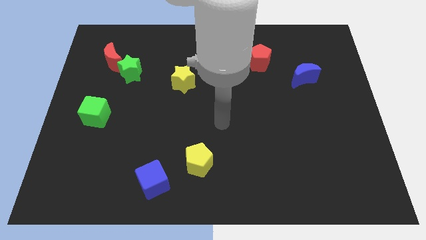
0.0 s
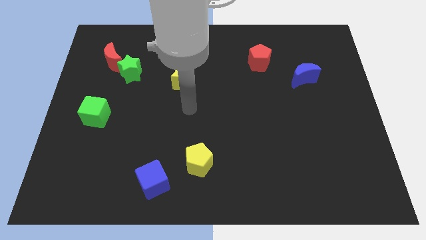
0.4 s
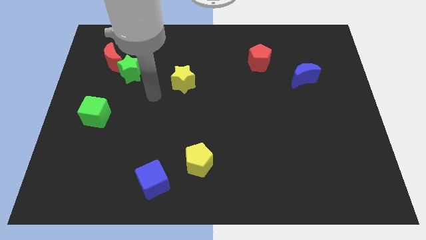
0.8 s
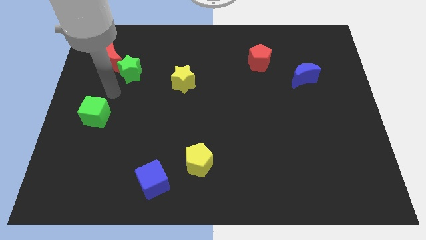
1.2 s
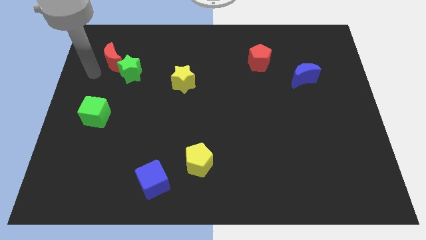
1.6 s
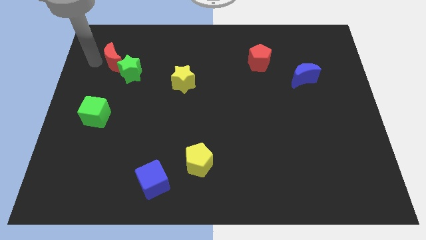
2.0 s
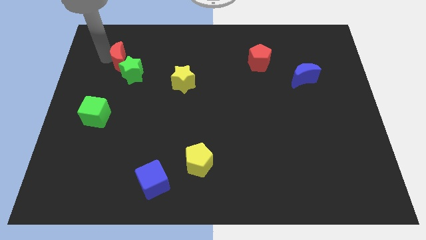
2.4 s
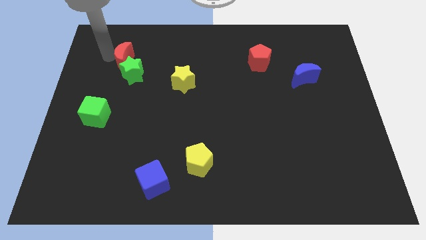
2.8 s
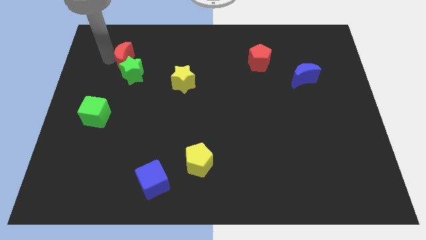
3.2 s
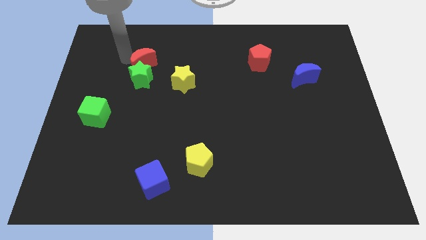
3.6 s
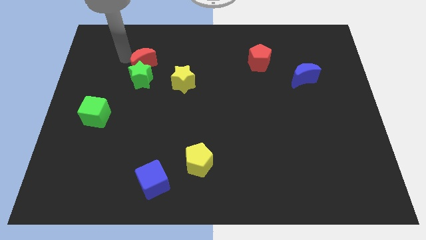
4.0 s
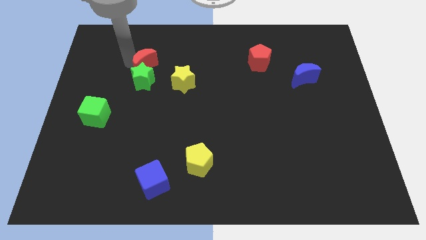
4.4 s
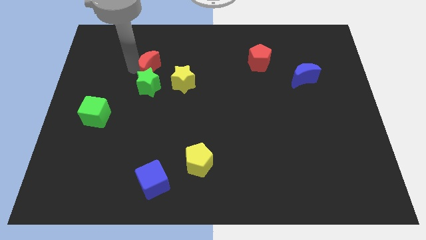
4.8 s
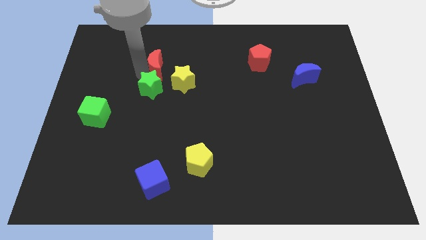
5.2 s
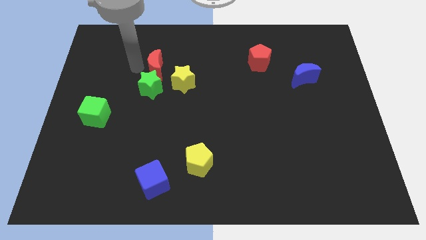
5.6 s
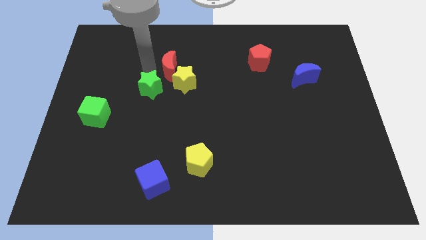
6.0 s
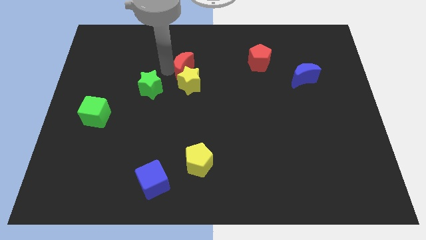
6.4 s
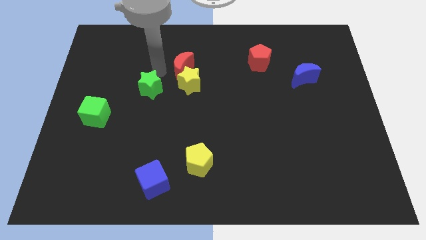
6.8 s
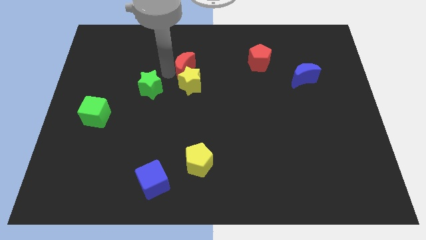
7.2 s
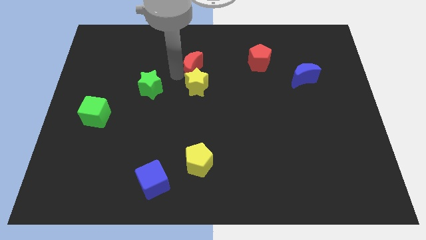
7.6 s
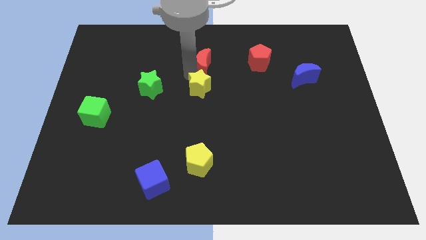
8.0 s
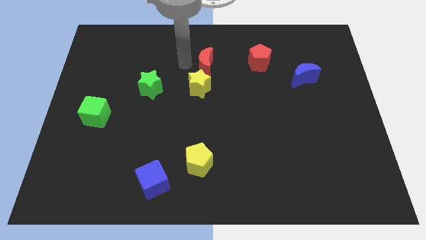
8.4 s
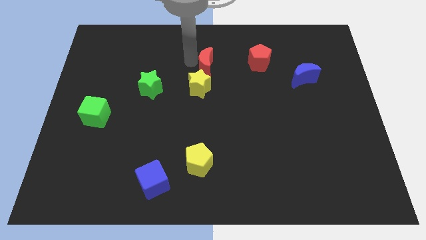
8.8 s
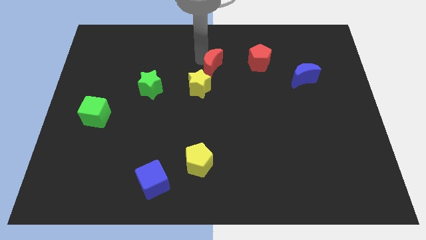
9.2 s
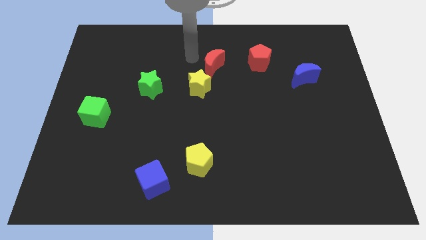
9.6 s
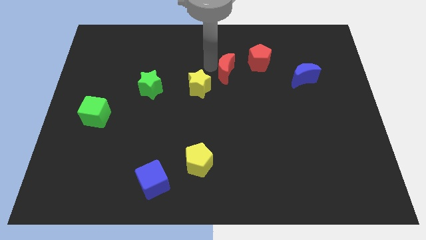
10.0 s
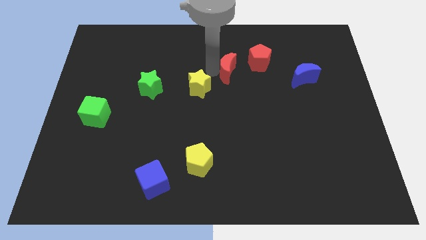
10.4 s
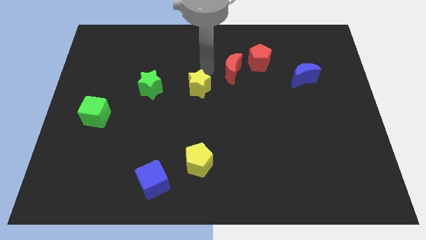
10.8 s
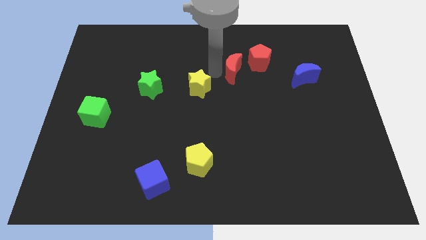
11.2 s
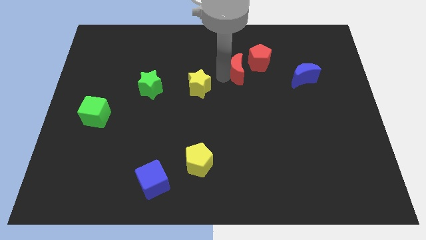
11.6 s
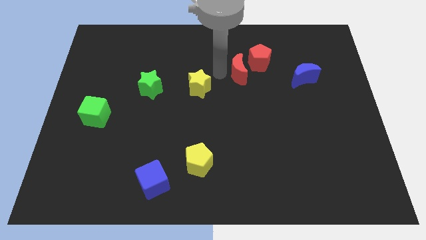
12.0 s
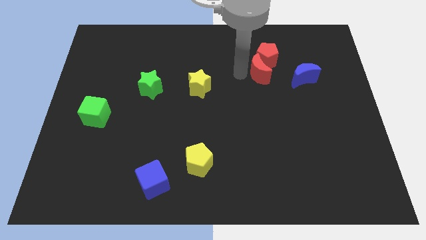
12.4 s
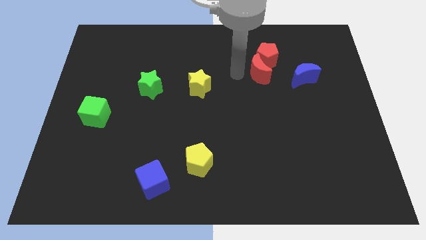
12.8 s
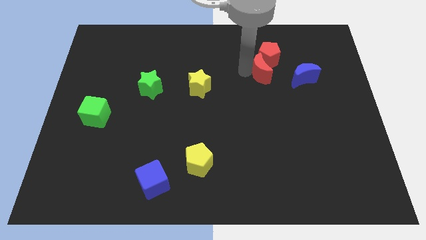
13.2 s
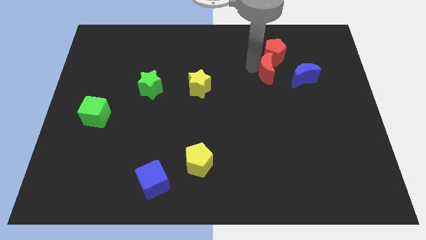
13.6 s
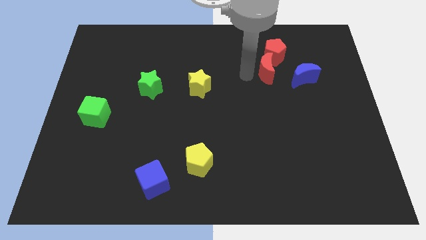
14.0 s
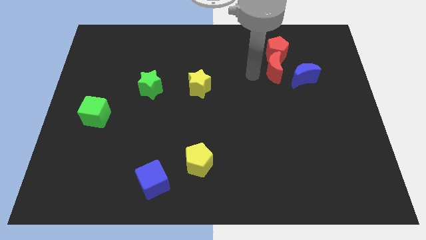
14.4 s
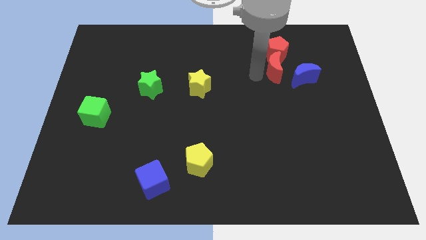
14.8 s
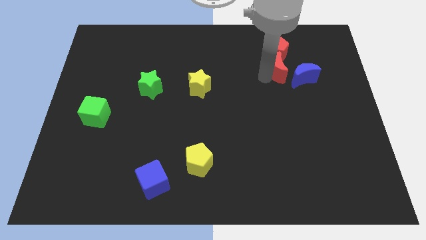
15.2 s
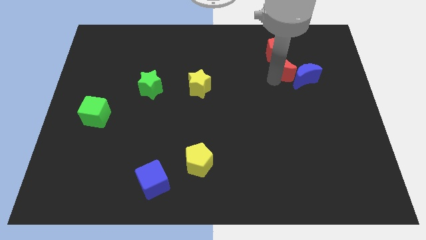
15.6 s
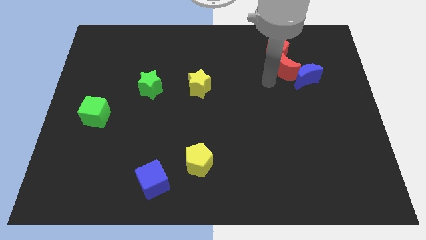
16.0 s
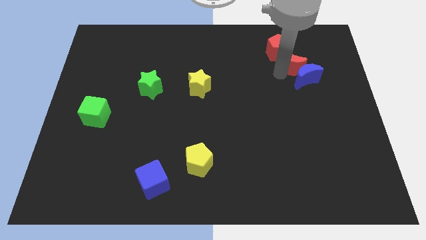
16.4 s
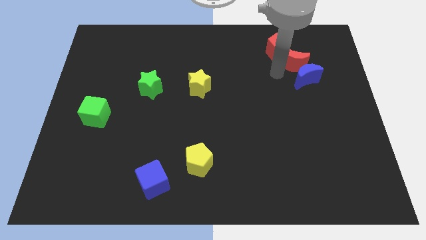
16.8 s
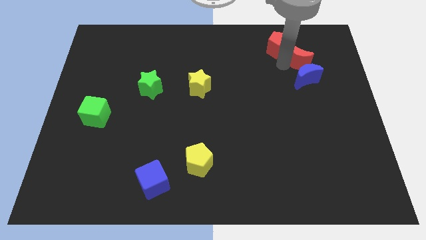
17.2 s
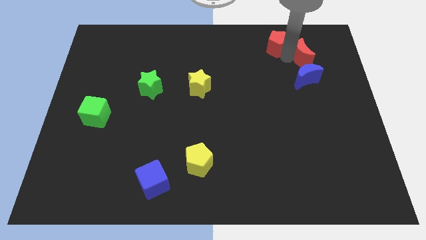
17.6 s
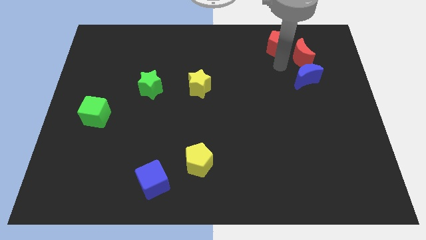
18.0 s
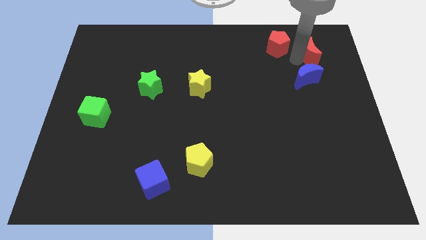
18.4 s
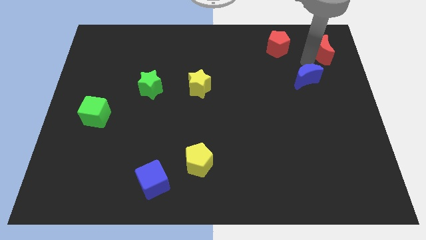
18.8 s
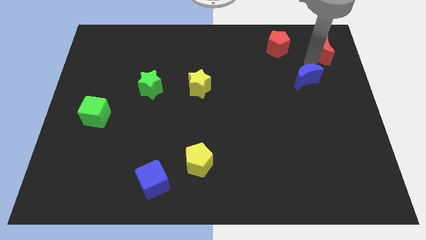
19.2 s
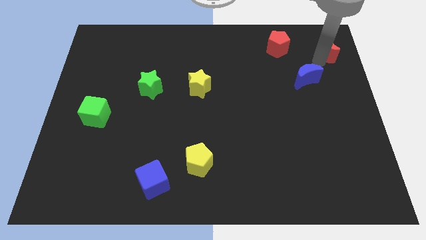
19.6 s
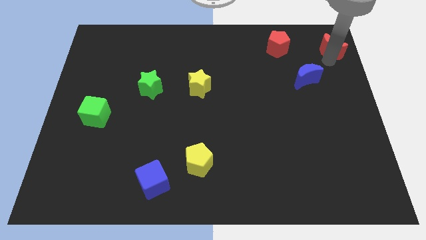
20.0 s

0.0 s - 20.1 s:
slide the red moon to the top right of the board

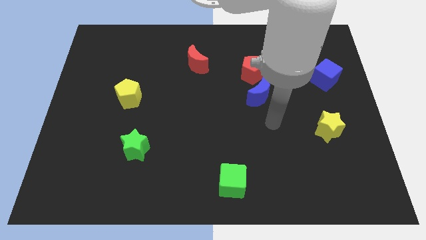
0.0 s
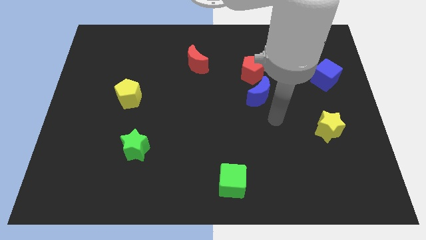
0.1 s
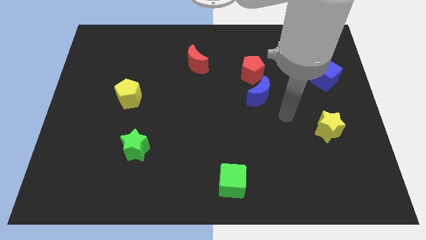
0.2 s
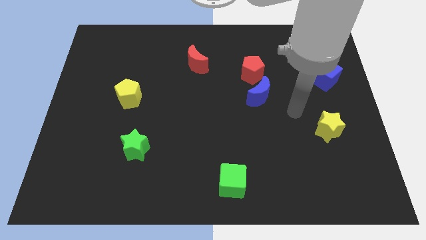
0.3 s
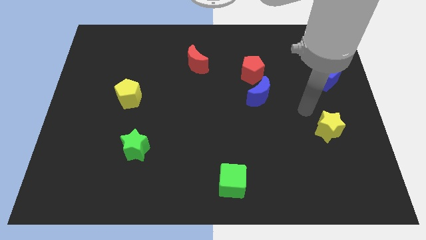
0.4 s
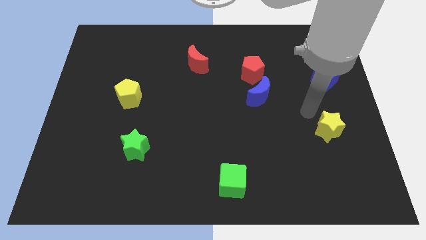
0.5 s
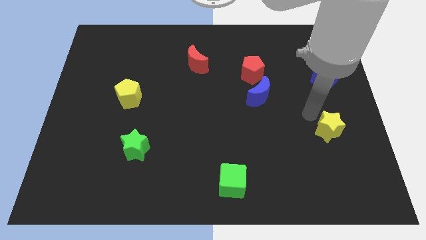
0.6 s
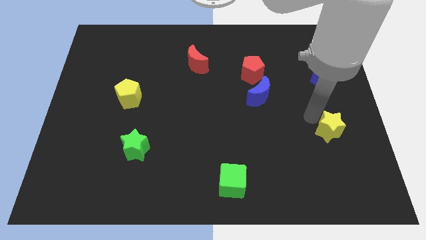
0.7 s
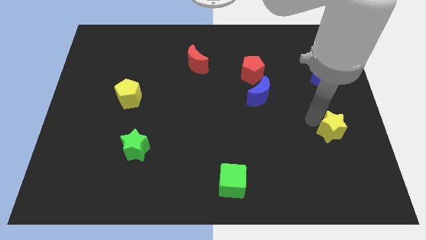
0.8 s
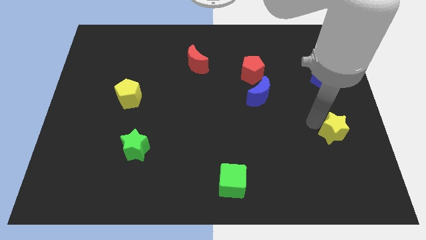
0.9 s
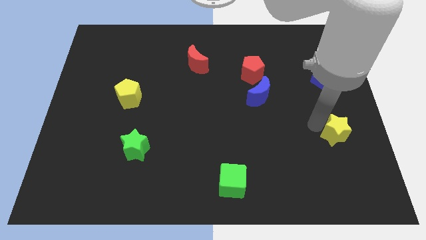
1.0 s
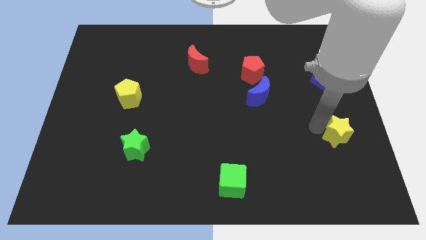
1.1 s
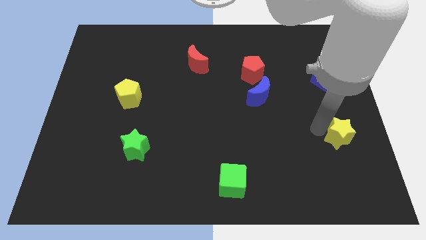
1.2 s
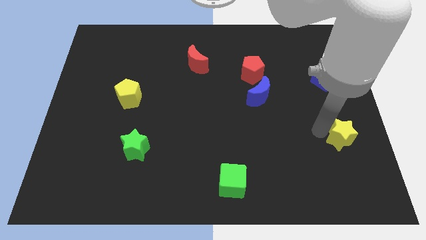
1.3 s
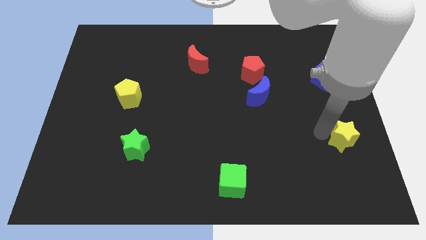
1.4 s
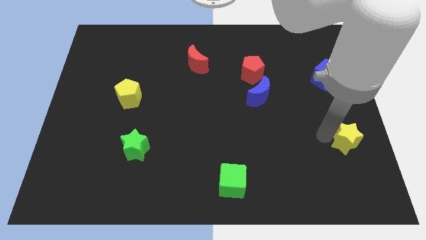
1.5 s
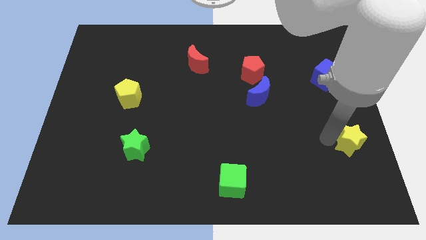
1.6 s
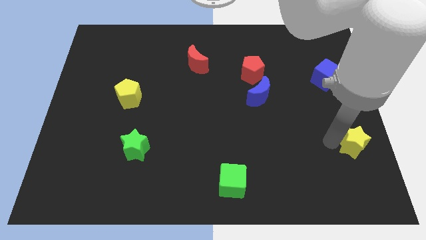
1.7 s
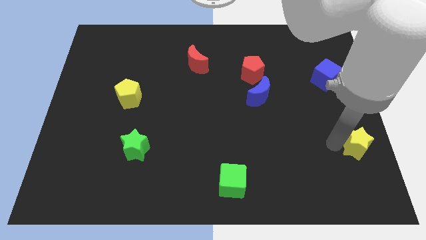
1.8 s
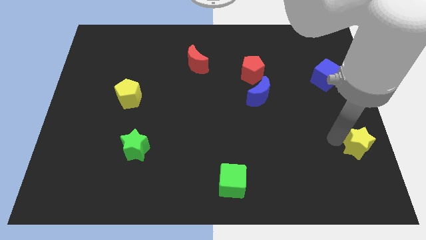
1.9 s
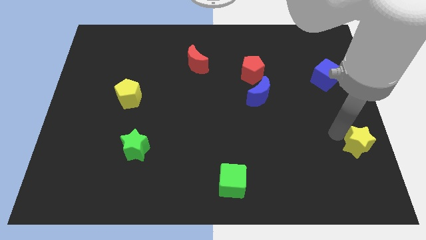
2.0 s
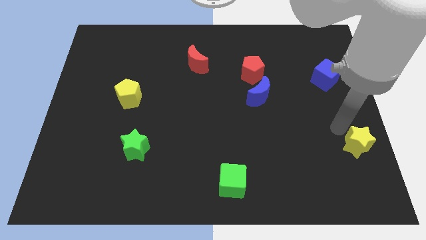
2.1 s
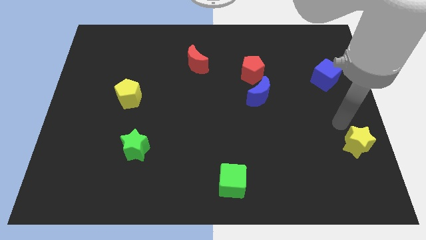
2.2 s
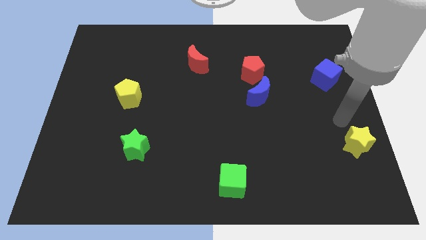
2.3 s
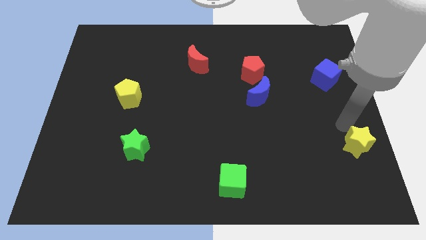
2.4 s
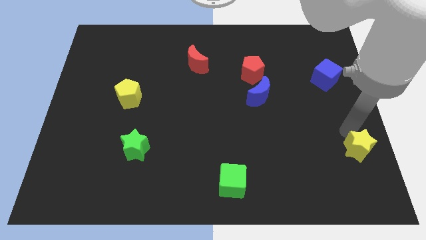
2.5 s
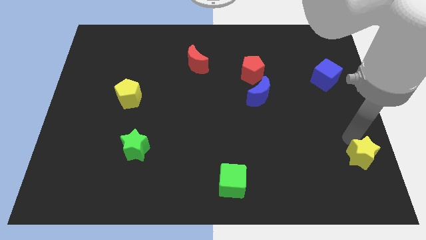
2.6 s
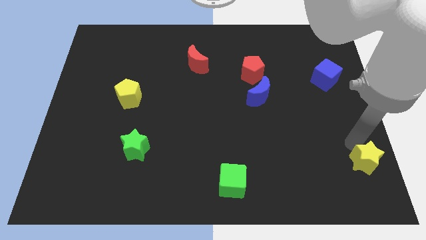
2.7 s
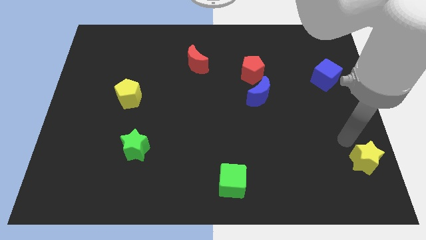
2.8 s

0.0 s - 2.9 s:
put the yellow star to the lower right corner
